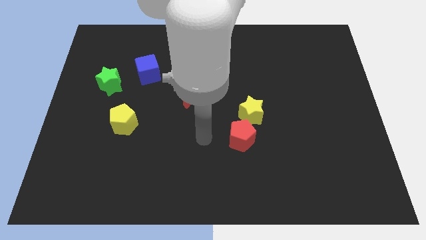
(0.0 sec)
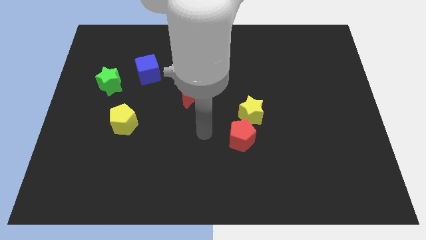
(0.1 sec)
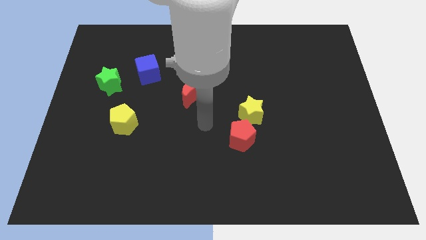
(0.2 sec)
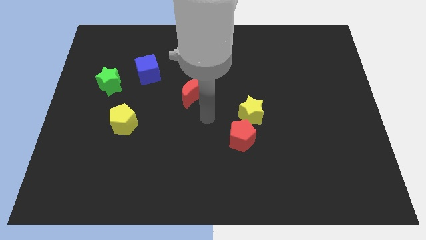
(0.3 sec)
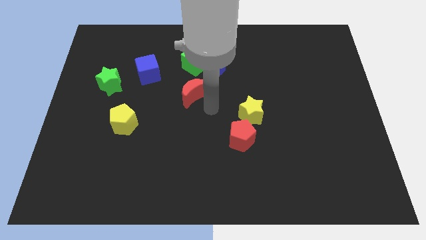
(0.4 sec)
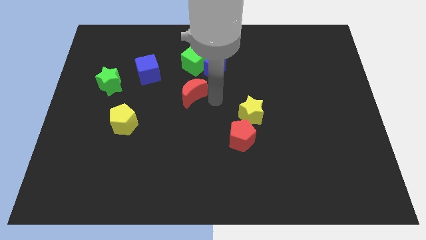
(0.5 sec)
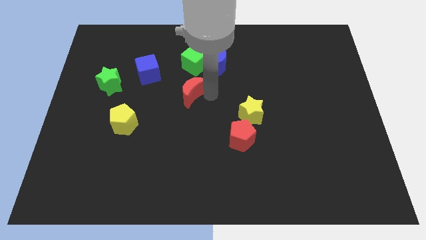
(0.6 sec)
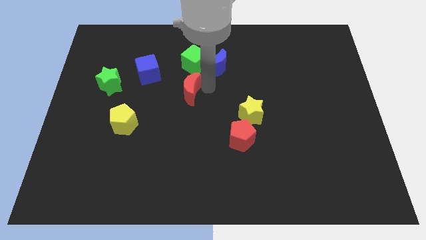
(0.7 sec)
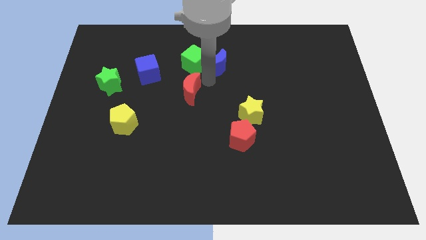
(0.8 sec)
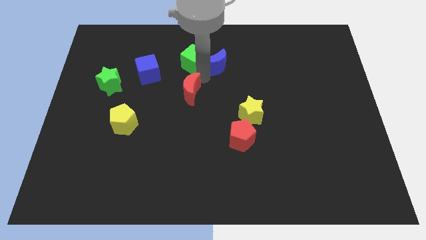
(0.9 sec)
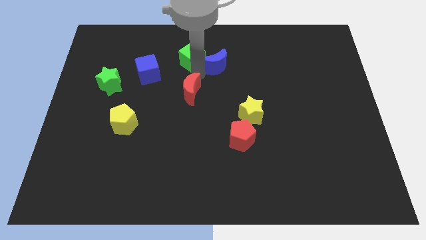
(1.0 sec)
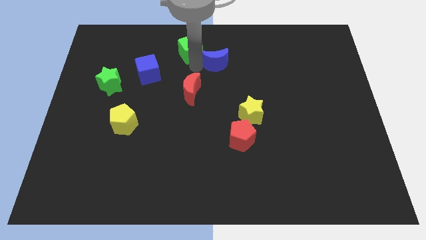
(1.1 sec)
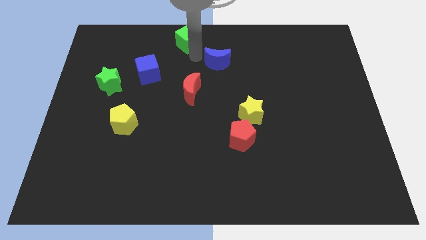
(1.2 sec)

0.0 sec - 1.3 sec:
move the blue moon away from the green cube

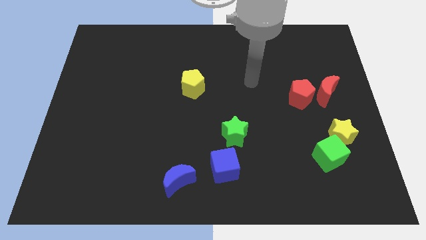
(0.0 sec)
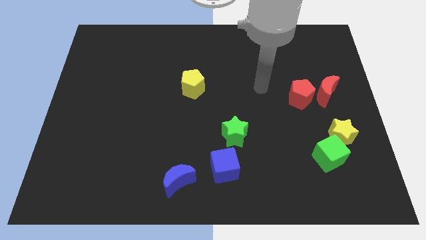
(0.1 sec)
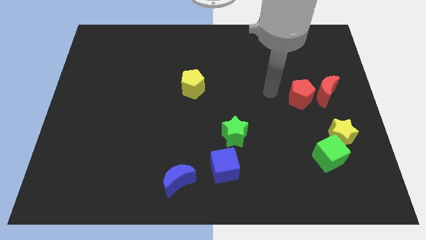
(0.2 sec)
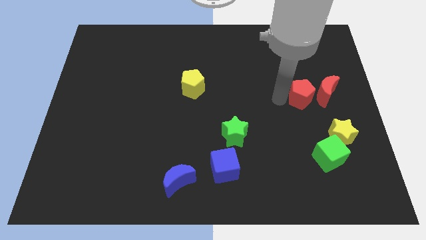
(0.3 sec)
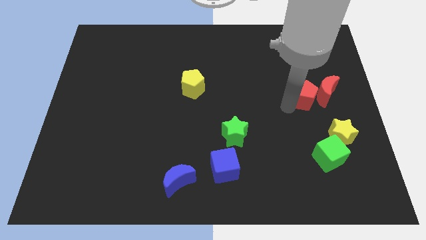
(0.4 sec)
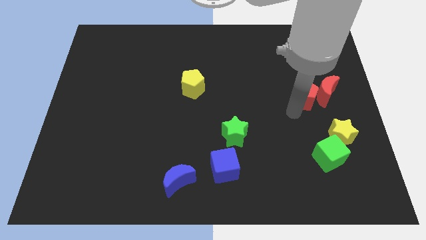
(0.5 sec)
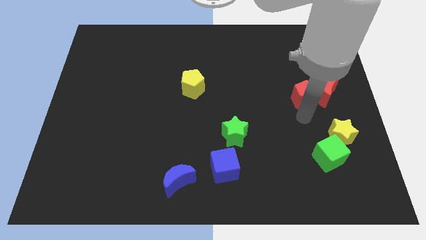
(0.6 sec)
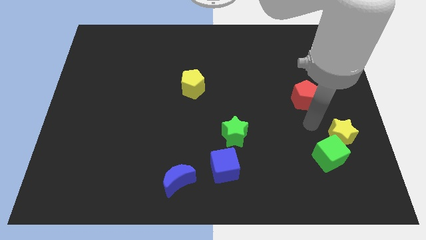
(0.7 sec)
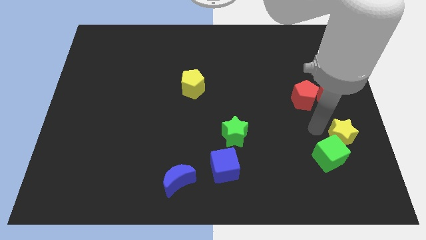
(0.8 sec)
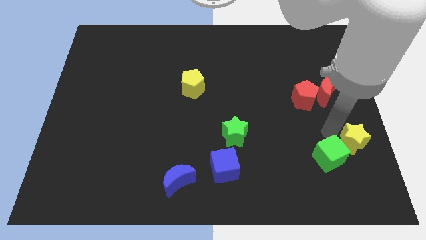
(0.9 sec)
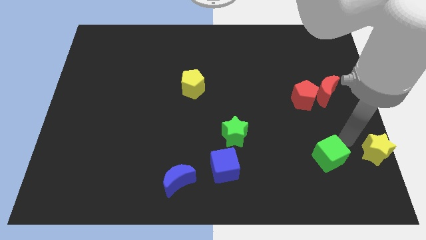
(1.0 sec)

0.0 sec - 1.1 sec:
move the green cube away from the yellow star

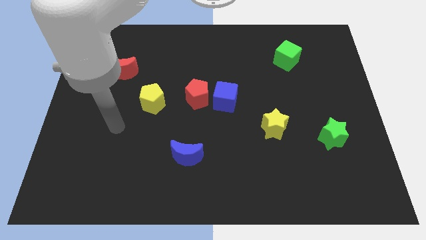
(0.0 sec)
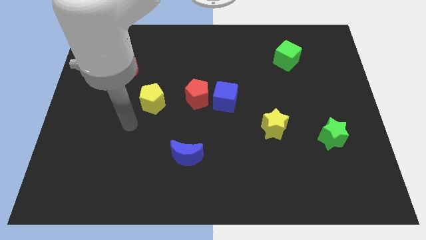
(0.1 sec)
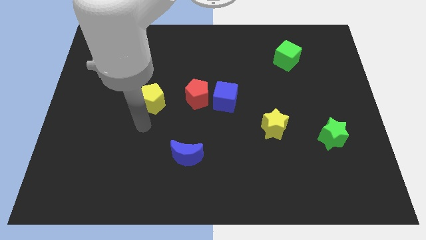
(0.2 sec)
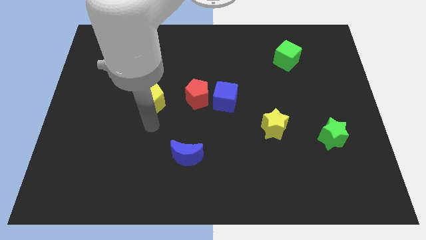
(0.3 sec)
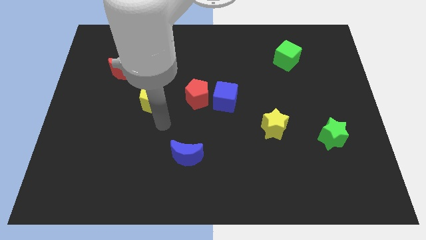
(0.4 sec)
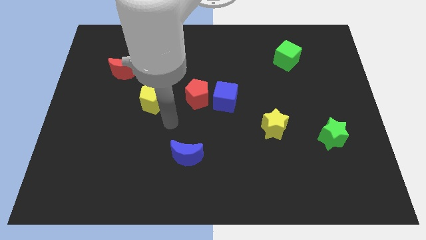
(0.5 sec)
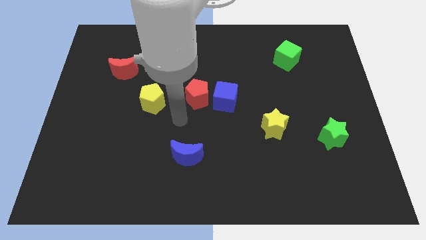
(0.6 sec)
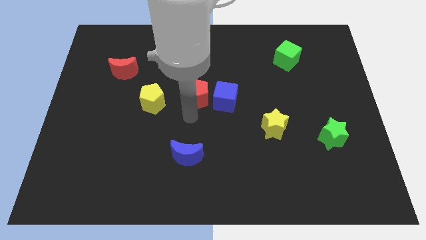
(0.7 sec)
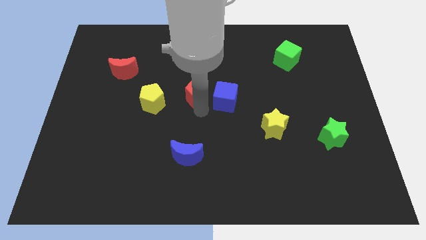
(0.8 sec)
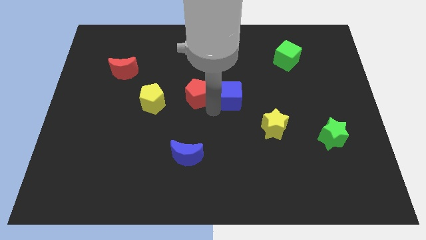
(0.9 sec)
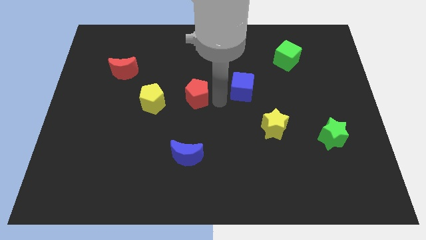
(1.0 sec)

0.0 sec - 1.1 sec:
pull the red pentagon apart from the blue cube

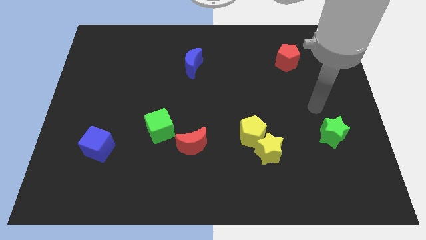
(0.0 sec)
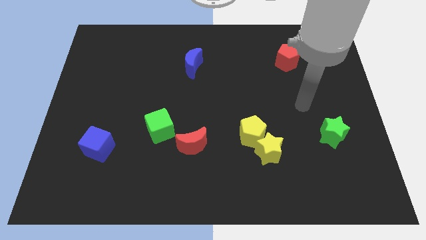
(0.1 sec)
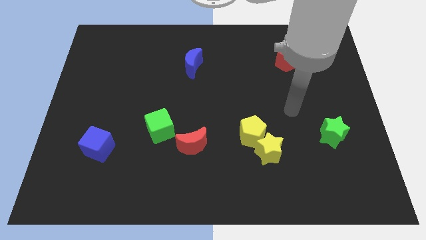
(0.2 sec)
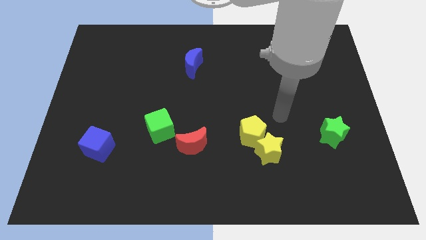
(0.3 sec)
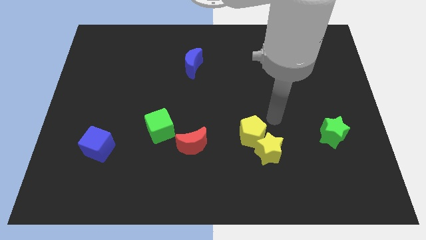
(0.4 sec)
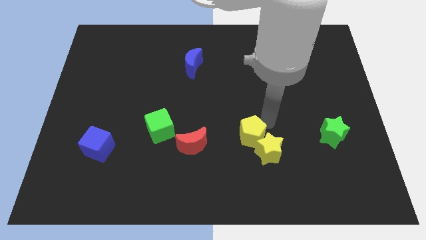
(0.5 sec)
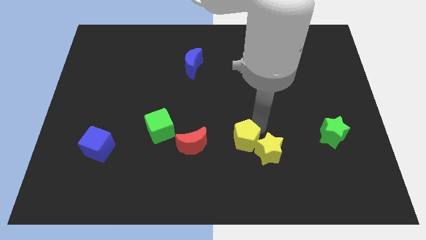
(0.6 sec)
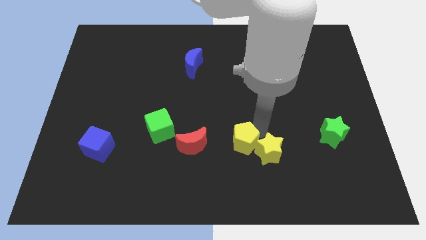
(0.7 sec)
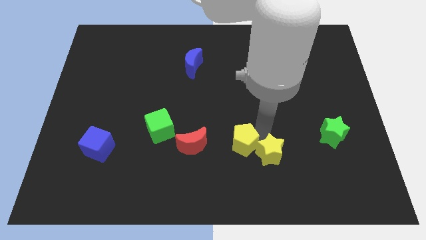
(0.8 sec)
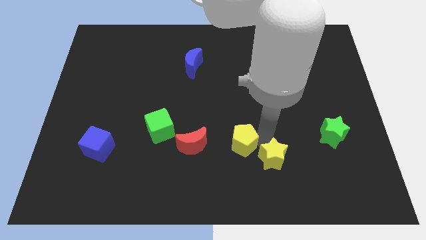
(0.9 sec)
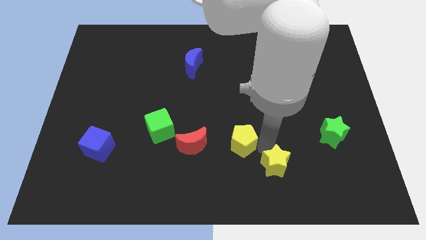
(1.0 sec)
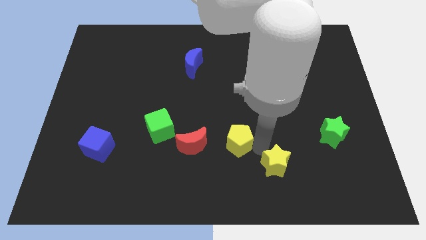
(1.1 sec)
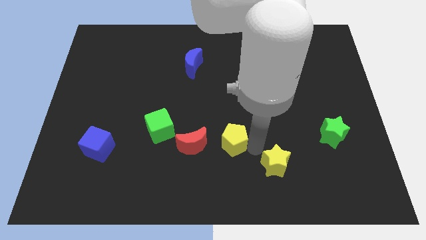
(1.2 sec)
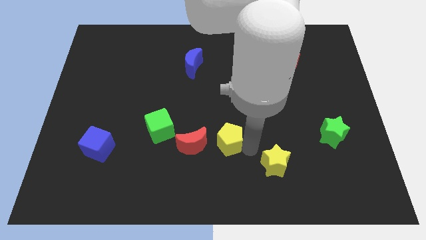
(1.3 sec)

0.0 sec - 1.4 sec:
move the yellow star away from the yellow pentagon

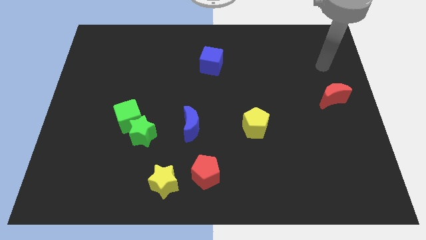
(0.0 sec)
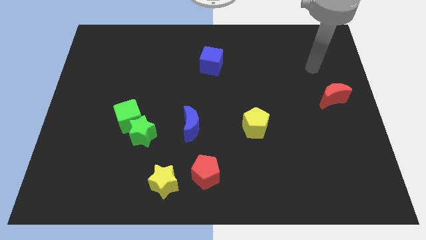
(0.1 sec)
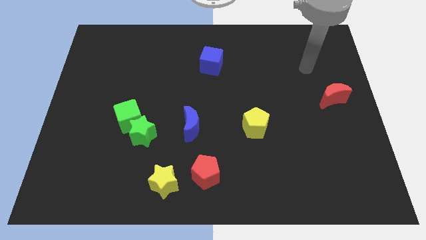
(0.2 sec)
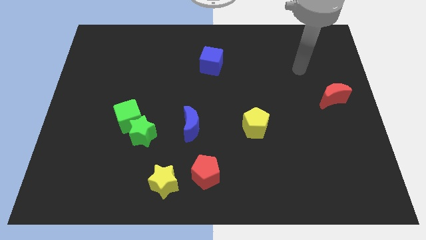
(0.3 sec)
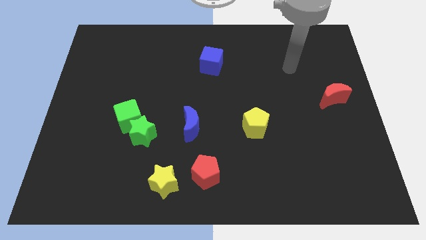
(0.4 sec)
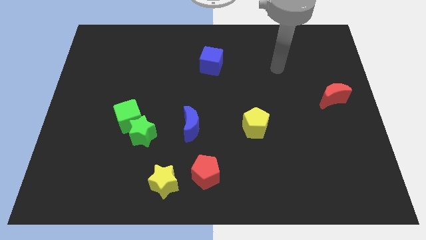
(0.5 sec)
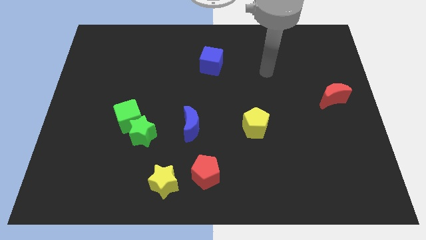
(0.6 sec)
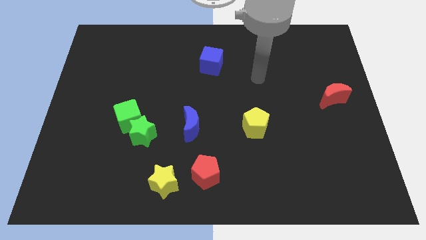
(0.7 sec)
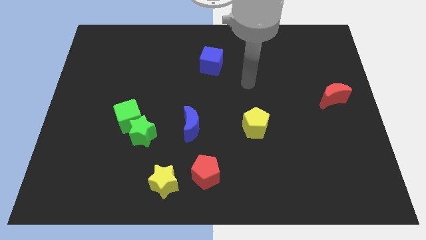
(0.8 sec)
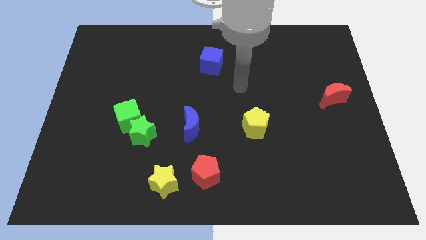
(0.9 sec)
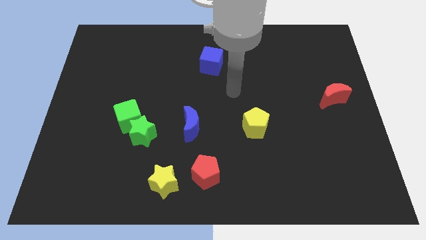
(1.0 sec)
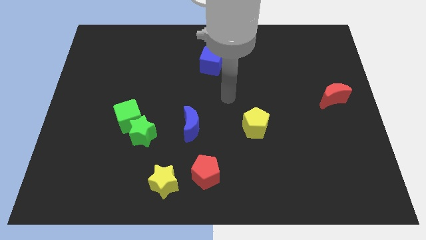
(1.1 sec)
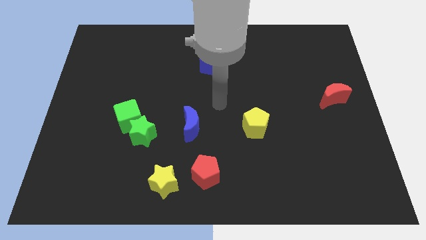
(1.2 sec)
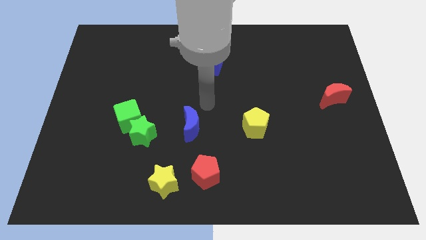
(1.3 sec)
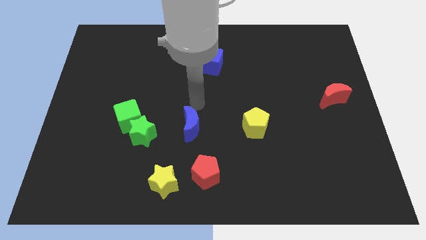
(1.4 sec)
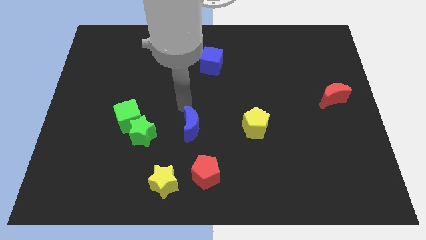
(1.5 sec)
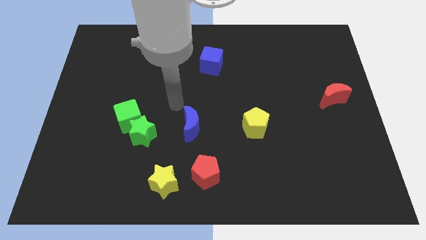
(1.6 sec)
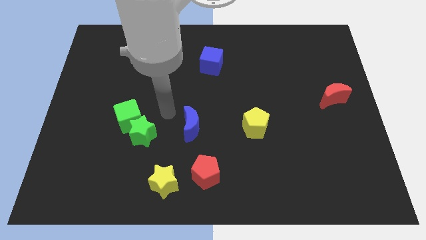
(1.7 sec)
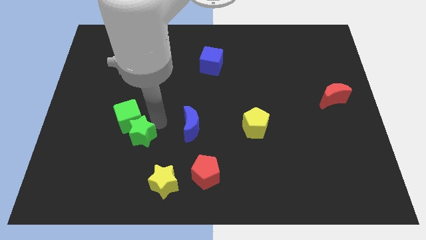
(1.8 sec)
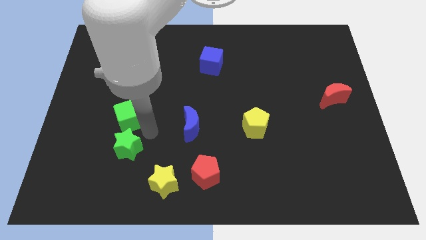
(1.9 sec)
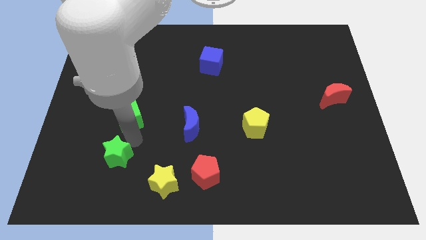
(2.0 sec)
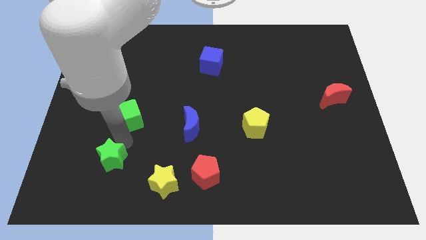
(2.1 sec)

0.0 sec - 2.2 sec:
separate the green cube from the green star

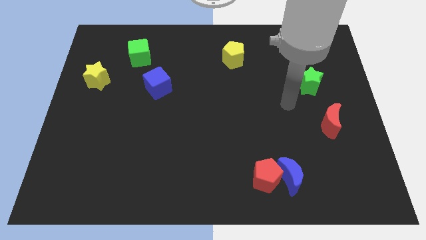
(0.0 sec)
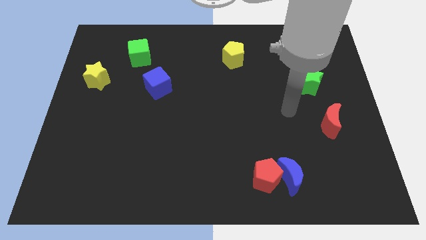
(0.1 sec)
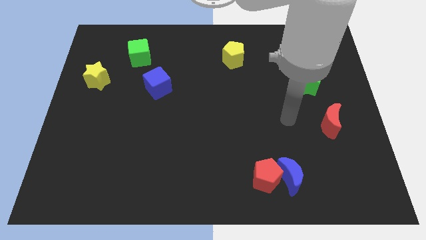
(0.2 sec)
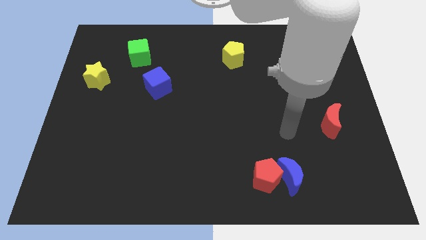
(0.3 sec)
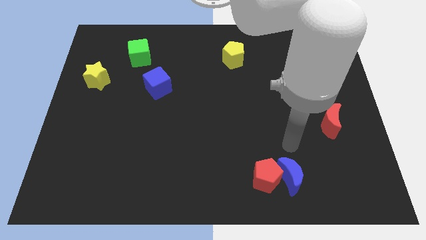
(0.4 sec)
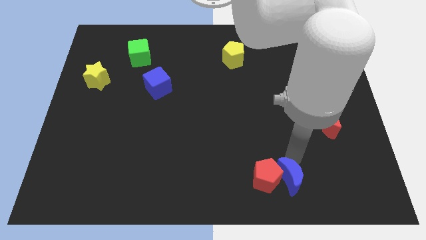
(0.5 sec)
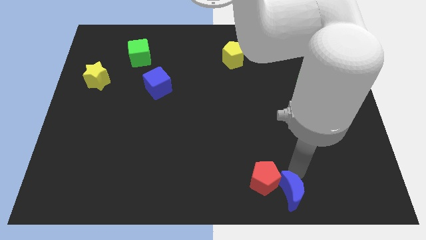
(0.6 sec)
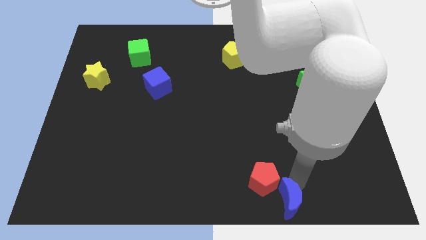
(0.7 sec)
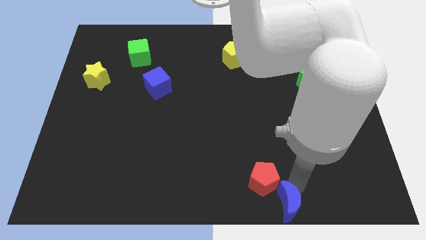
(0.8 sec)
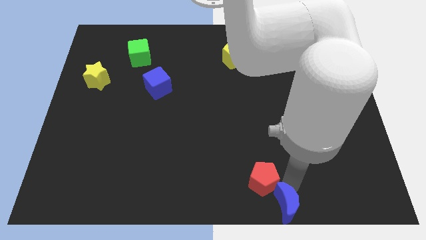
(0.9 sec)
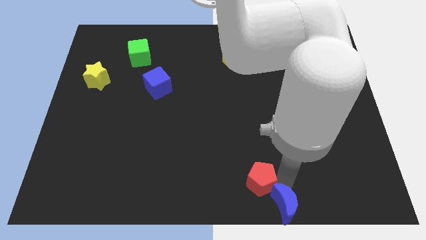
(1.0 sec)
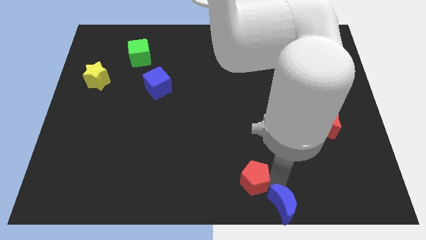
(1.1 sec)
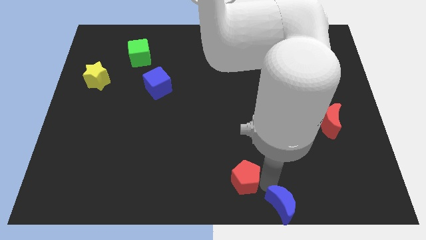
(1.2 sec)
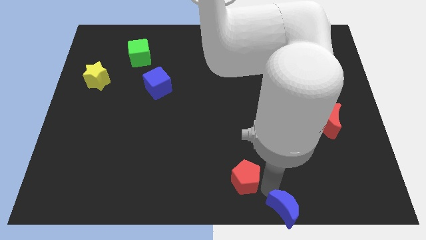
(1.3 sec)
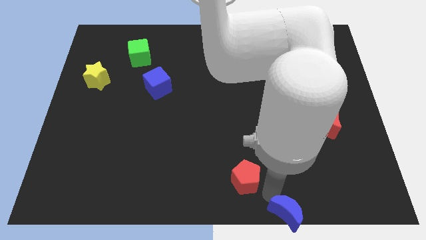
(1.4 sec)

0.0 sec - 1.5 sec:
move the red pentagon away from the blue moon

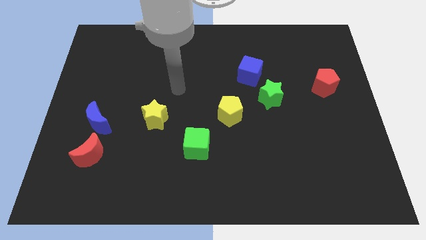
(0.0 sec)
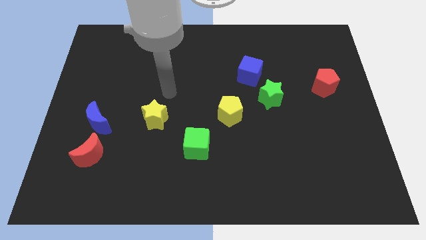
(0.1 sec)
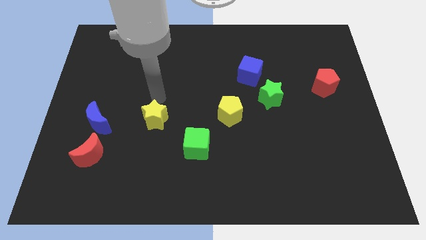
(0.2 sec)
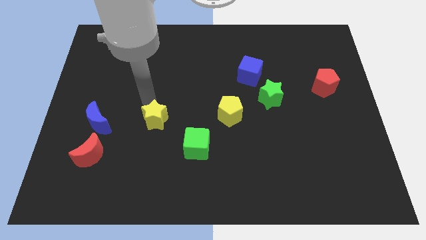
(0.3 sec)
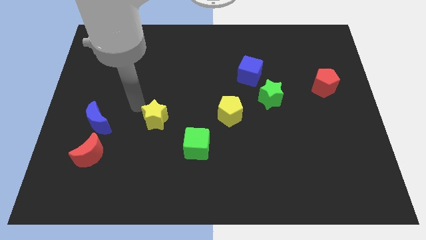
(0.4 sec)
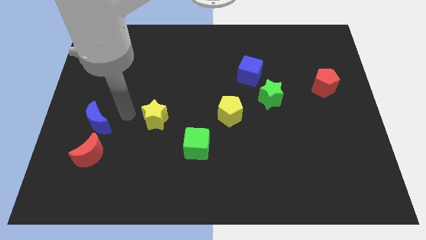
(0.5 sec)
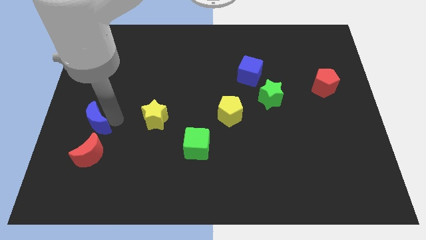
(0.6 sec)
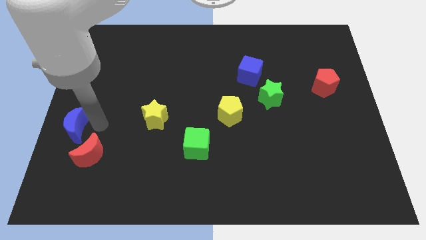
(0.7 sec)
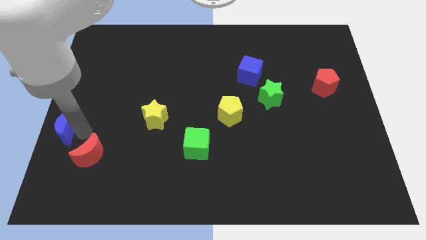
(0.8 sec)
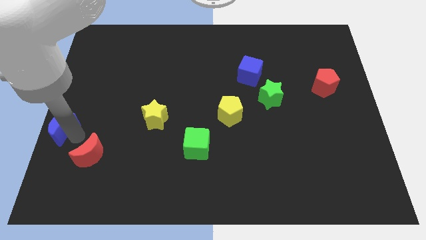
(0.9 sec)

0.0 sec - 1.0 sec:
move the red moon away from the blue moon
